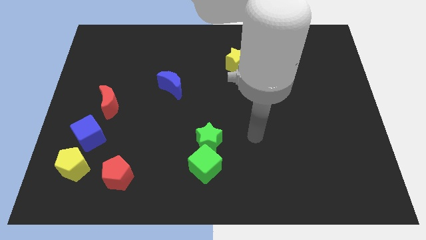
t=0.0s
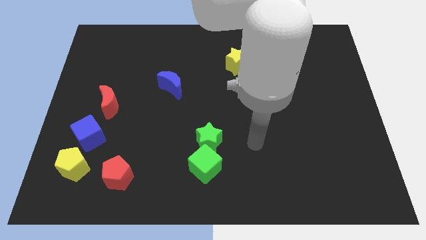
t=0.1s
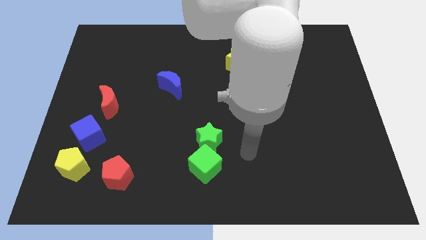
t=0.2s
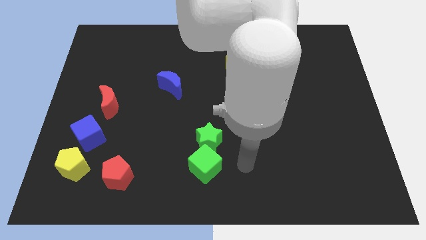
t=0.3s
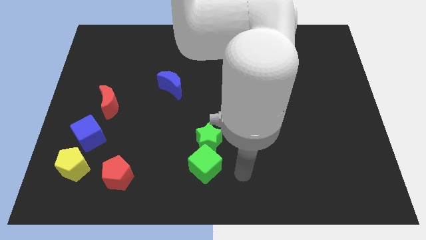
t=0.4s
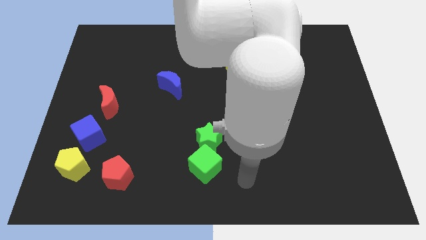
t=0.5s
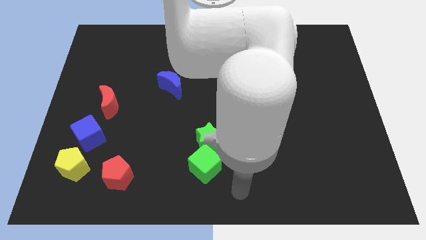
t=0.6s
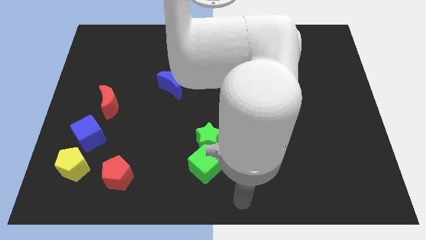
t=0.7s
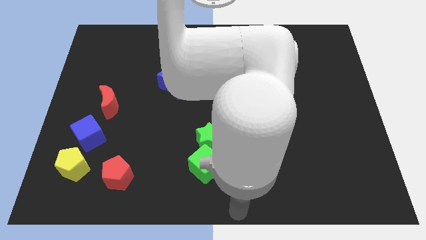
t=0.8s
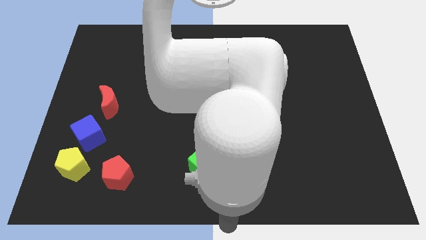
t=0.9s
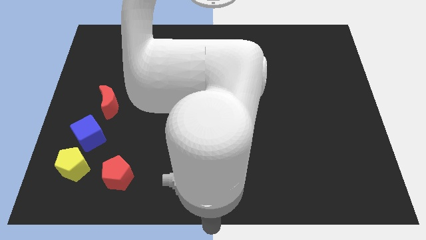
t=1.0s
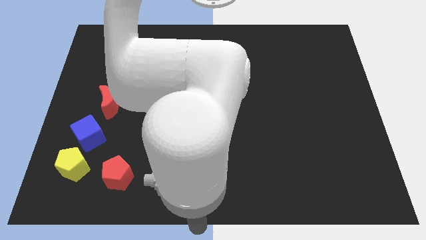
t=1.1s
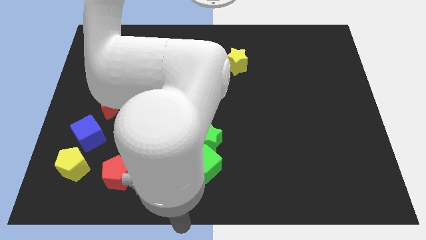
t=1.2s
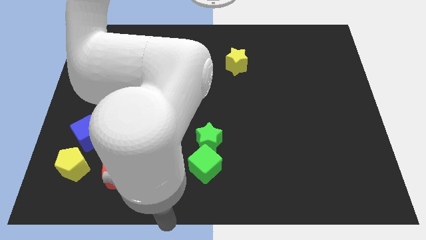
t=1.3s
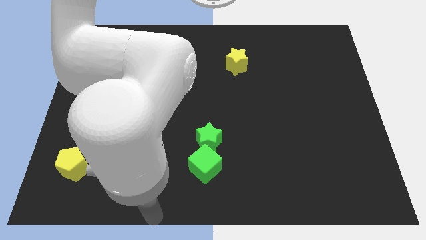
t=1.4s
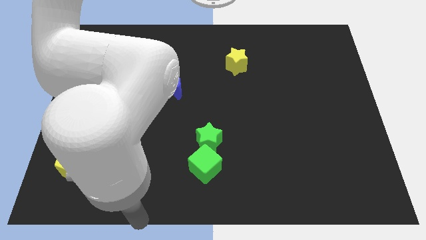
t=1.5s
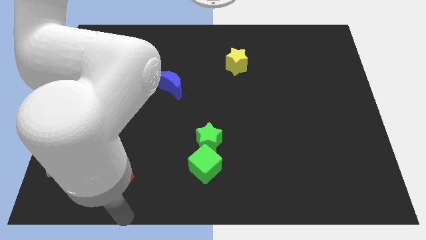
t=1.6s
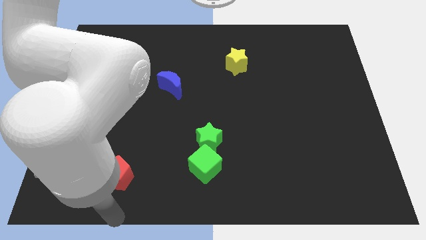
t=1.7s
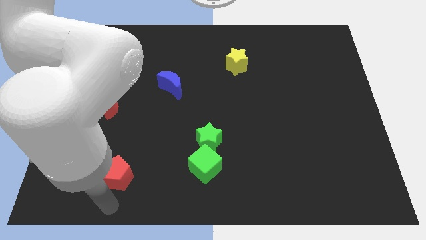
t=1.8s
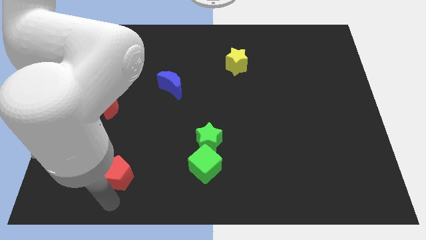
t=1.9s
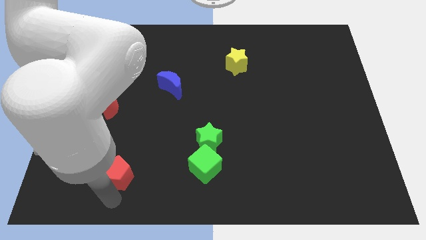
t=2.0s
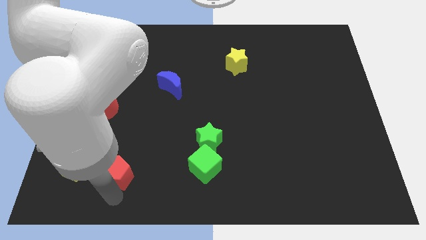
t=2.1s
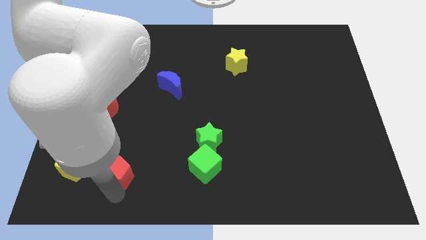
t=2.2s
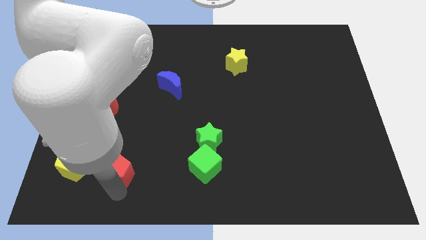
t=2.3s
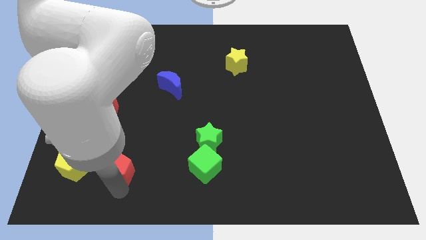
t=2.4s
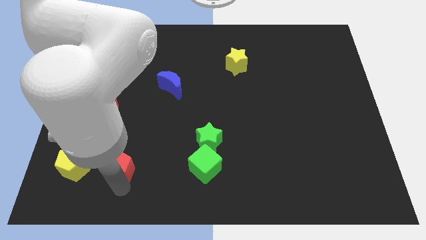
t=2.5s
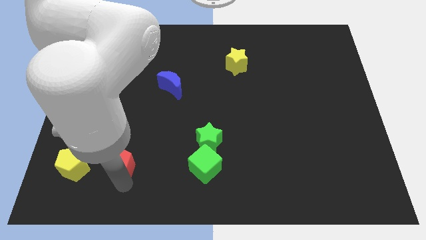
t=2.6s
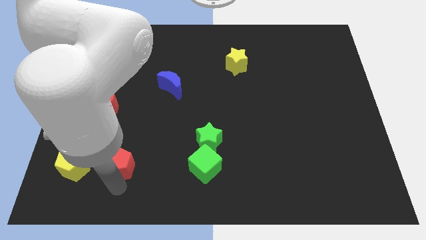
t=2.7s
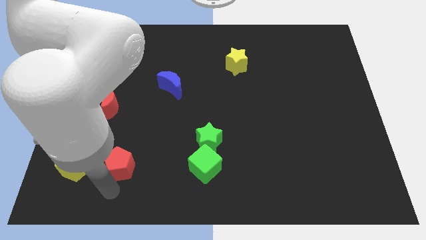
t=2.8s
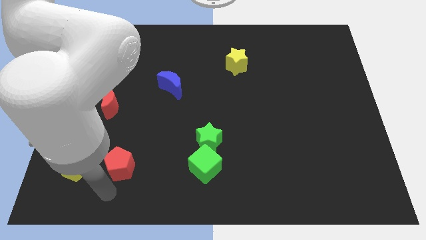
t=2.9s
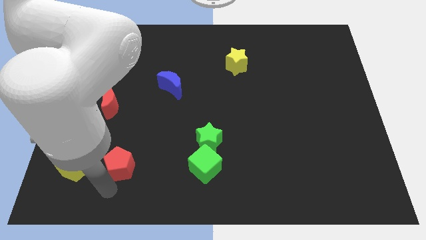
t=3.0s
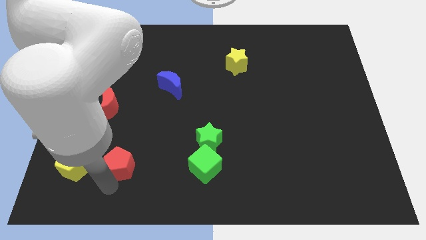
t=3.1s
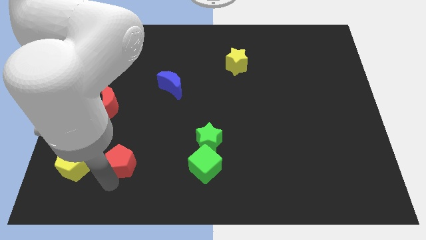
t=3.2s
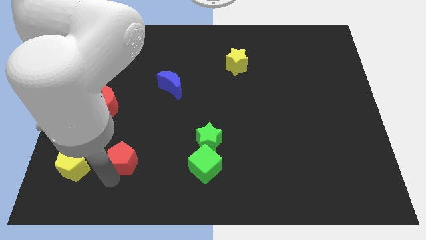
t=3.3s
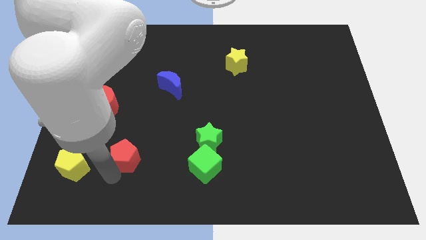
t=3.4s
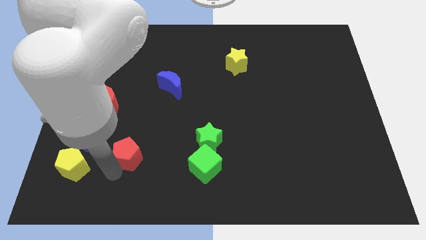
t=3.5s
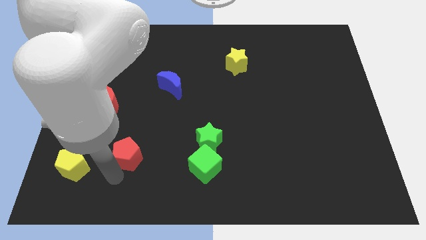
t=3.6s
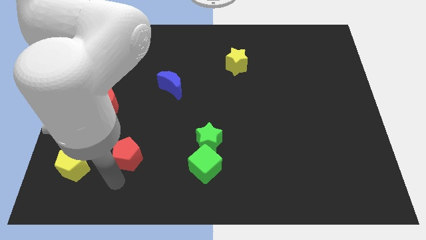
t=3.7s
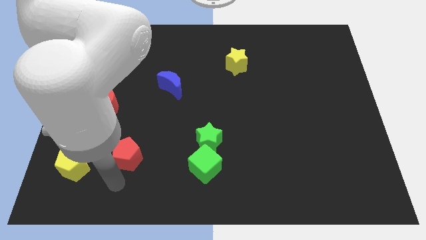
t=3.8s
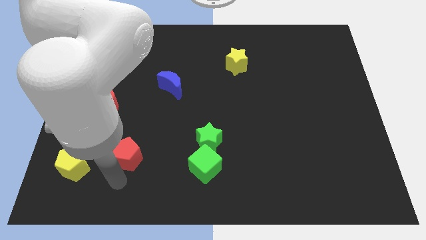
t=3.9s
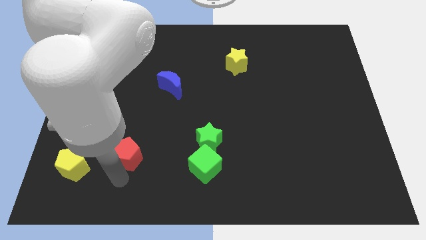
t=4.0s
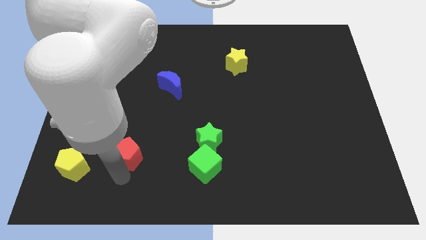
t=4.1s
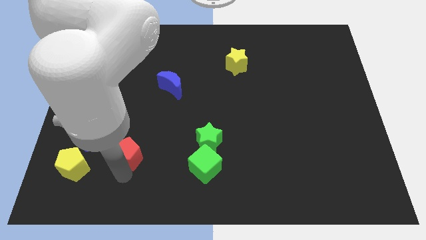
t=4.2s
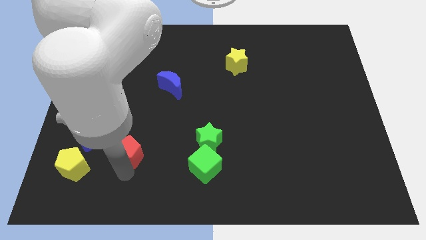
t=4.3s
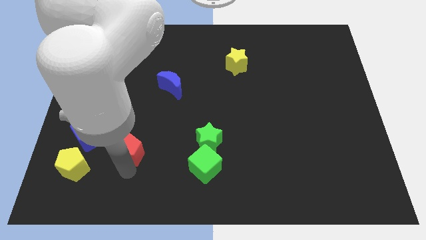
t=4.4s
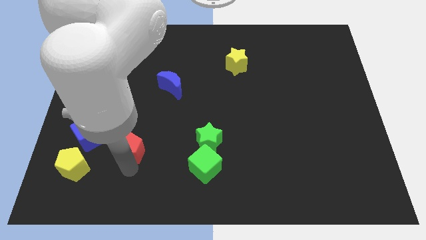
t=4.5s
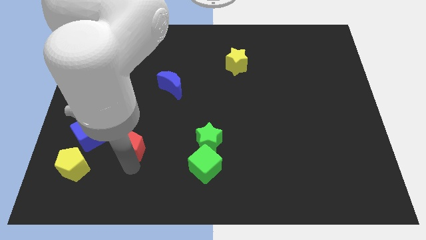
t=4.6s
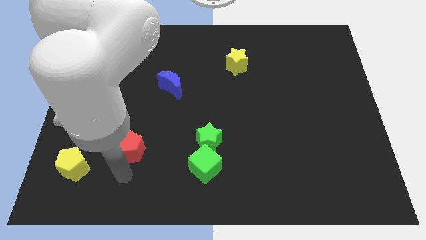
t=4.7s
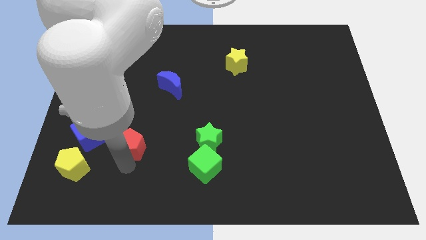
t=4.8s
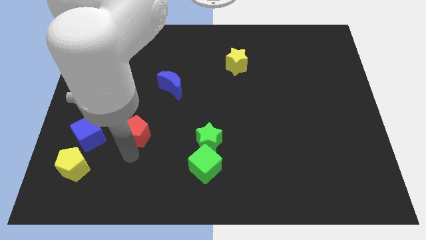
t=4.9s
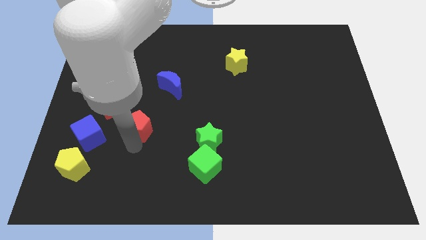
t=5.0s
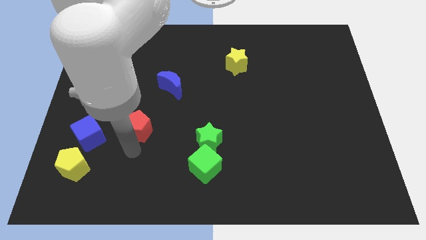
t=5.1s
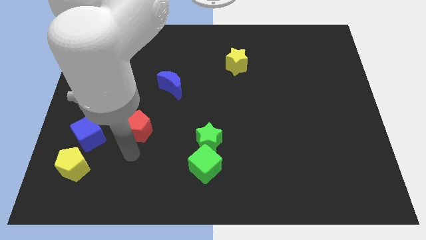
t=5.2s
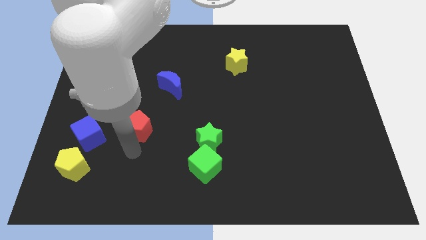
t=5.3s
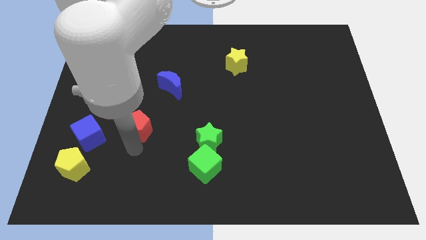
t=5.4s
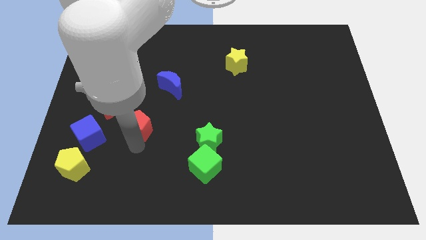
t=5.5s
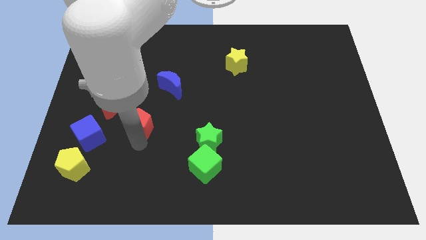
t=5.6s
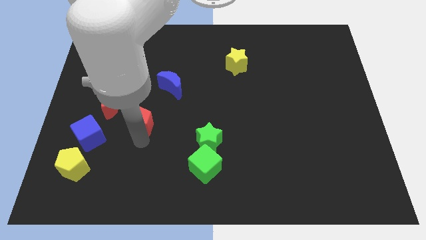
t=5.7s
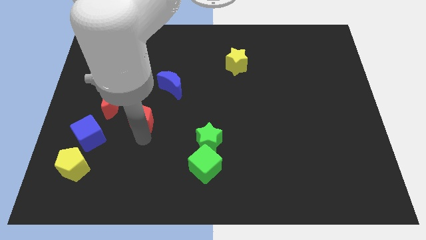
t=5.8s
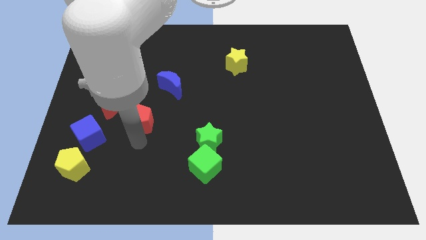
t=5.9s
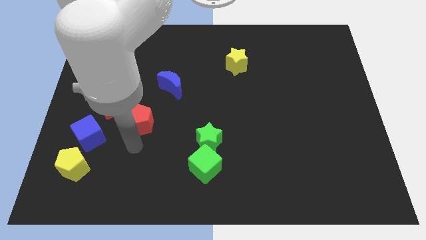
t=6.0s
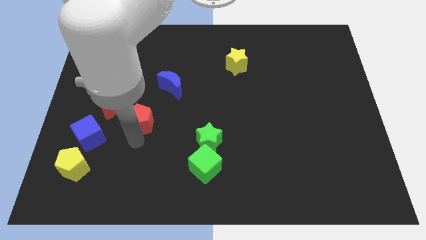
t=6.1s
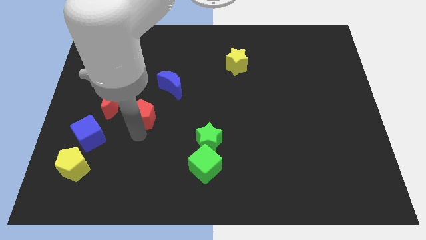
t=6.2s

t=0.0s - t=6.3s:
push the red pentagon diagonally down and to the left of the blue moon

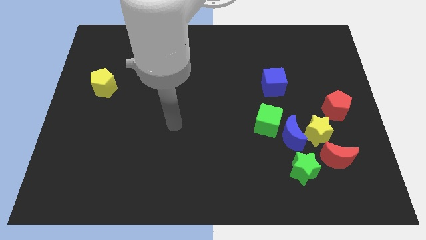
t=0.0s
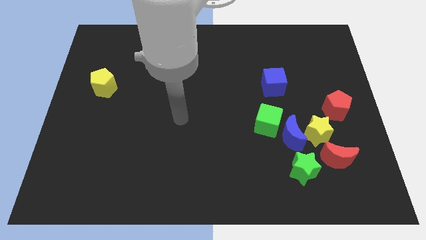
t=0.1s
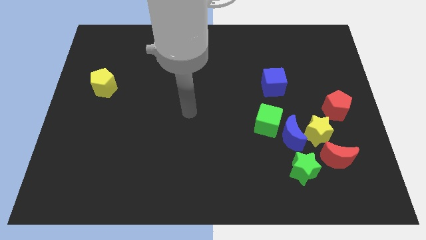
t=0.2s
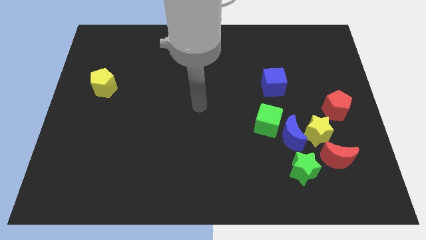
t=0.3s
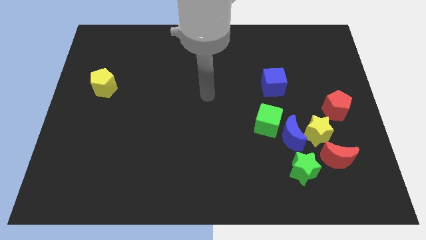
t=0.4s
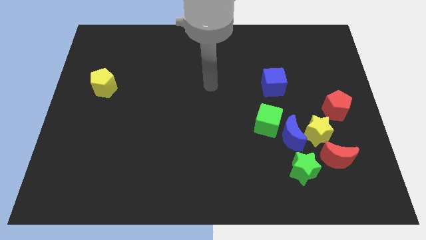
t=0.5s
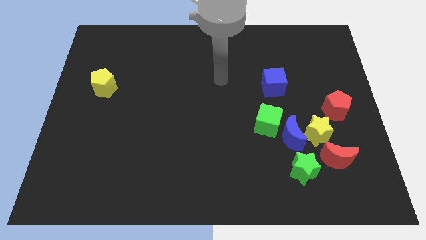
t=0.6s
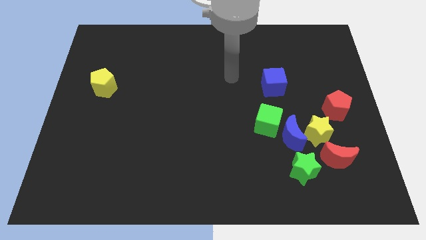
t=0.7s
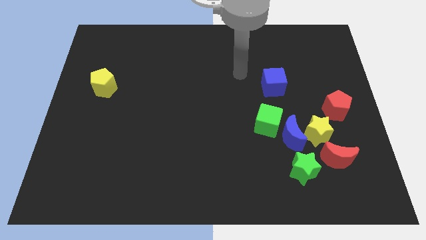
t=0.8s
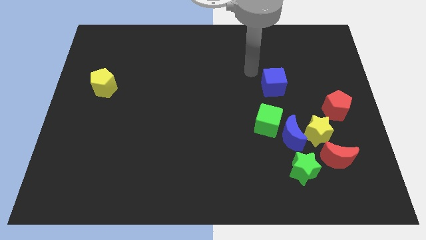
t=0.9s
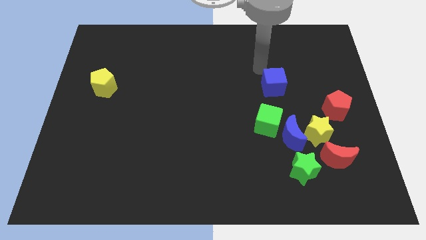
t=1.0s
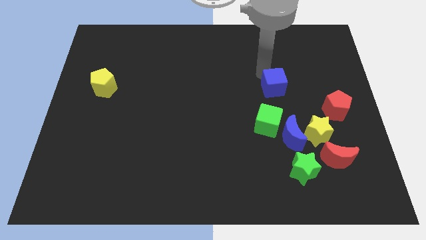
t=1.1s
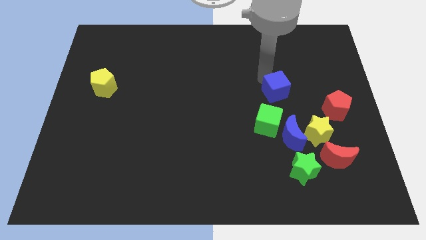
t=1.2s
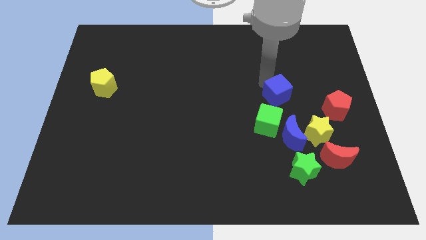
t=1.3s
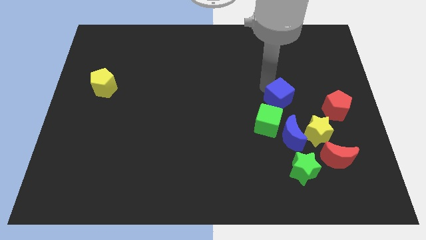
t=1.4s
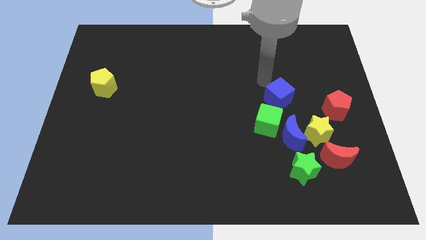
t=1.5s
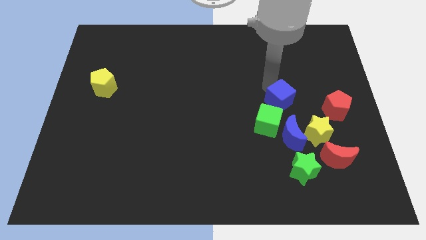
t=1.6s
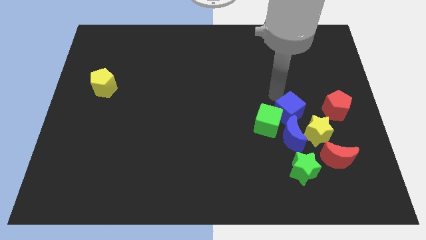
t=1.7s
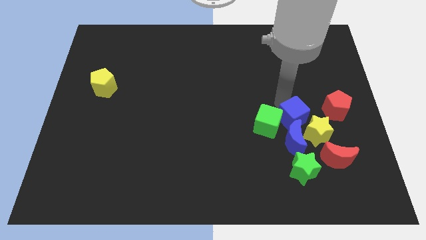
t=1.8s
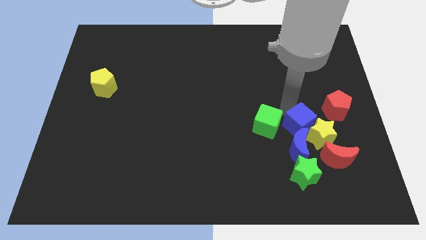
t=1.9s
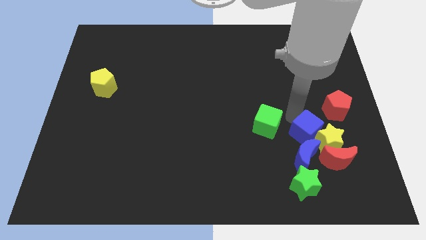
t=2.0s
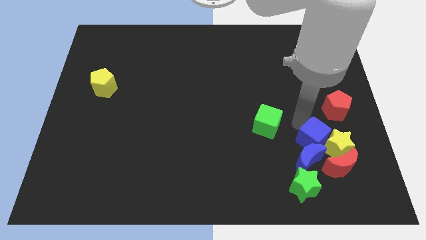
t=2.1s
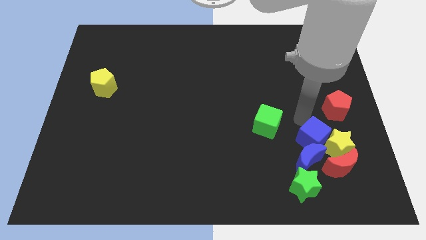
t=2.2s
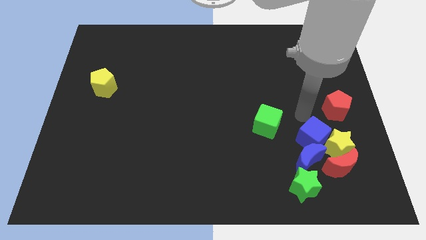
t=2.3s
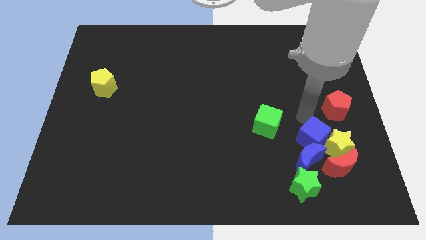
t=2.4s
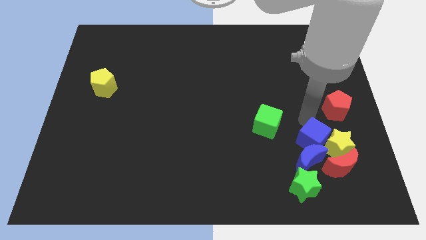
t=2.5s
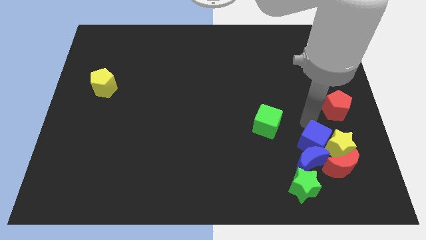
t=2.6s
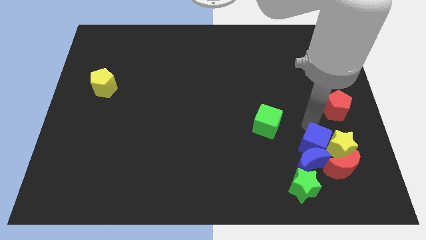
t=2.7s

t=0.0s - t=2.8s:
put the blue cube to the top right of the green star
